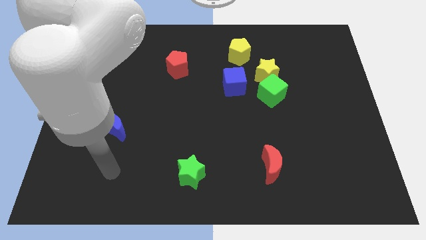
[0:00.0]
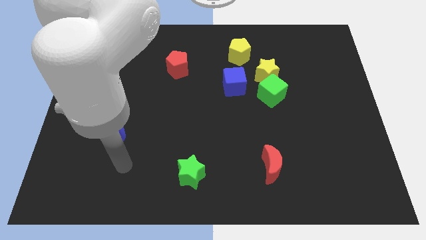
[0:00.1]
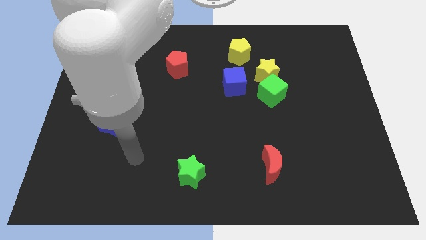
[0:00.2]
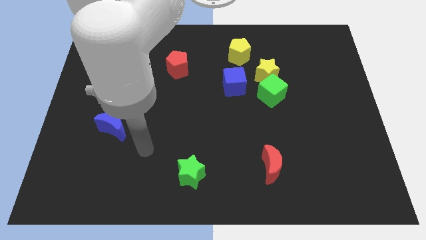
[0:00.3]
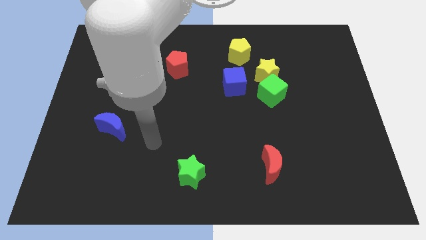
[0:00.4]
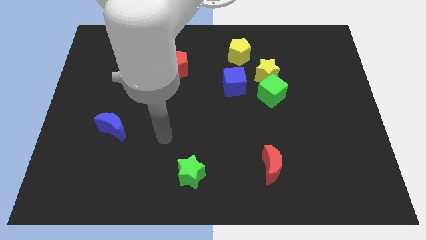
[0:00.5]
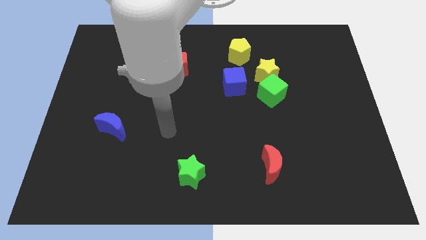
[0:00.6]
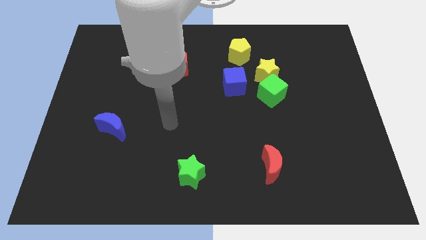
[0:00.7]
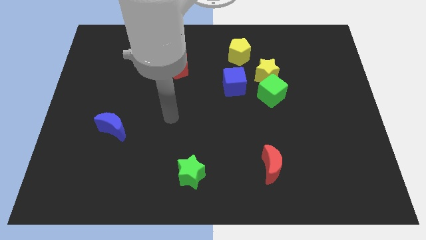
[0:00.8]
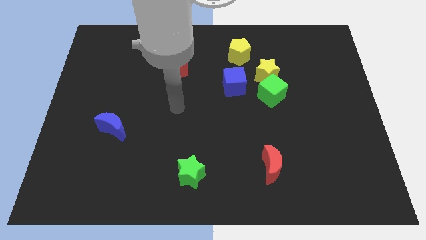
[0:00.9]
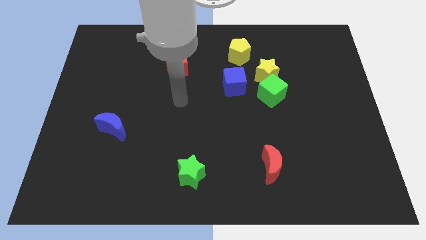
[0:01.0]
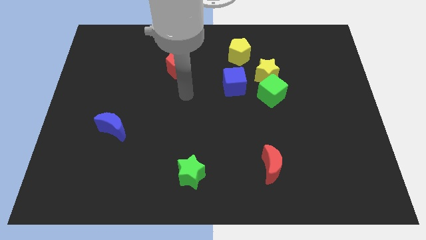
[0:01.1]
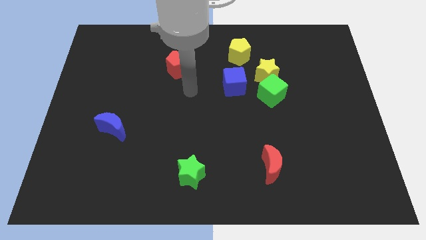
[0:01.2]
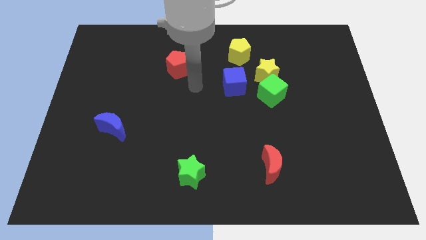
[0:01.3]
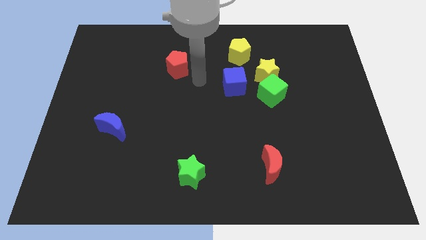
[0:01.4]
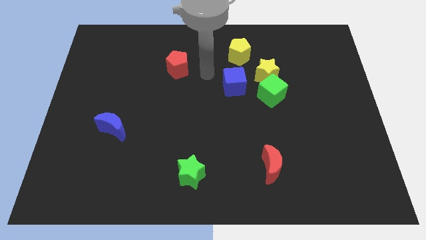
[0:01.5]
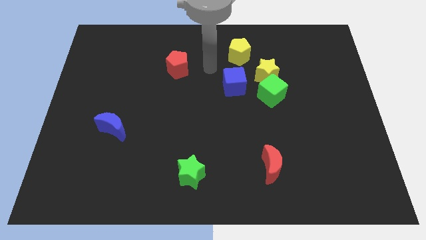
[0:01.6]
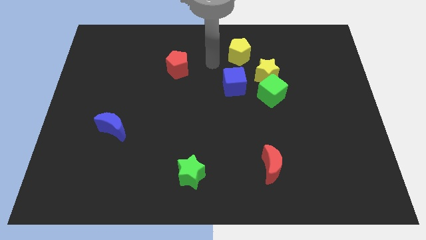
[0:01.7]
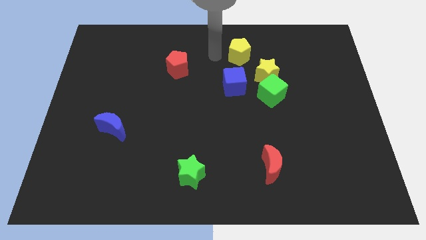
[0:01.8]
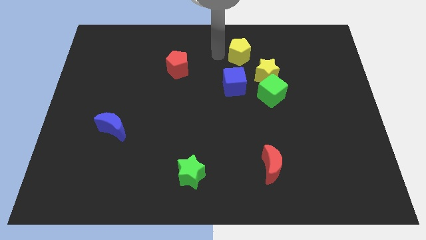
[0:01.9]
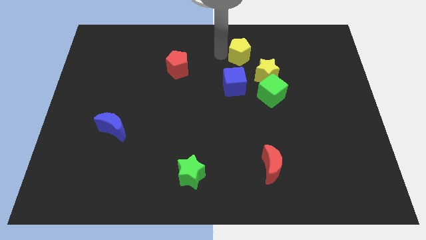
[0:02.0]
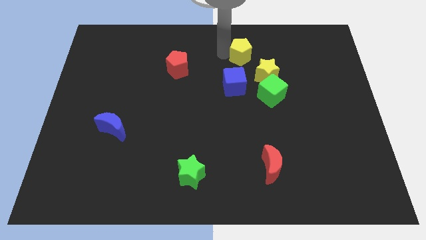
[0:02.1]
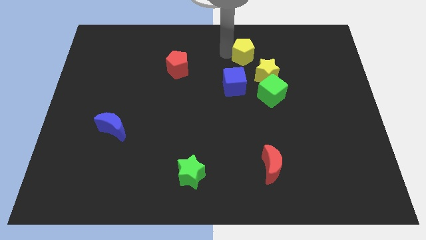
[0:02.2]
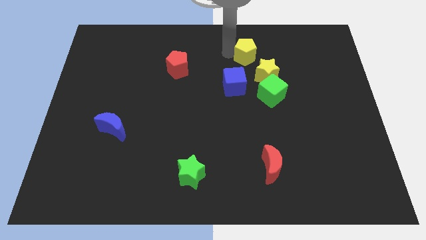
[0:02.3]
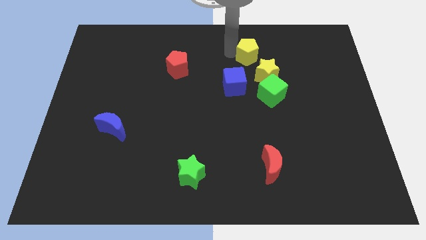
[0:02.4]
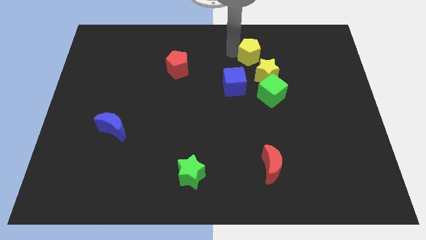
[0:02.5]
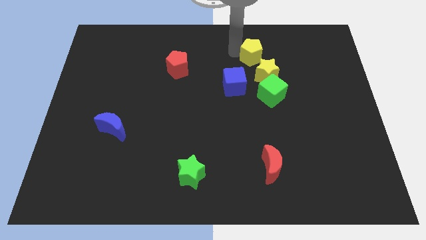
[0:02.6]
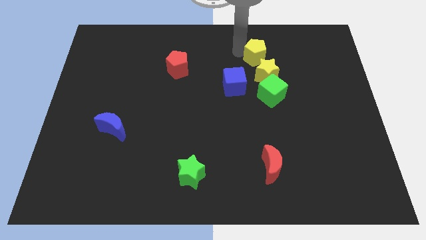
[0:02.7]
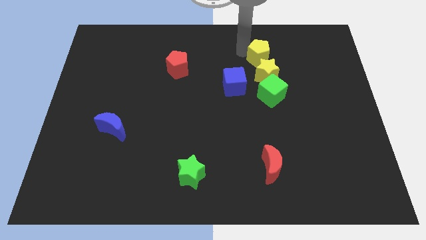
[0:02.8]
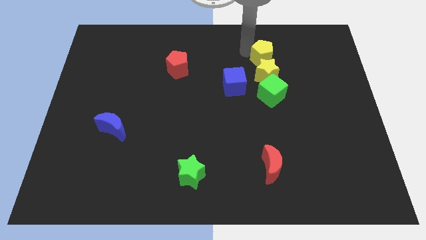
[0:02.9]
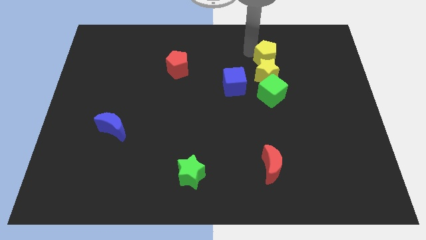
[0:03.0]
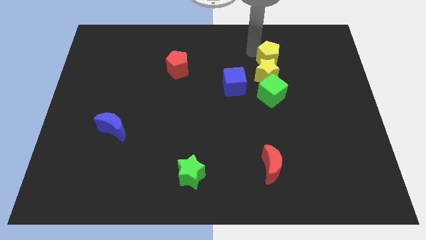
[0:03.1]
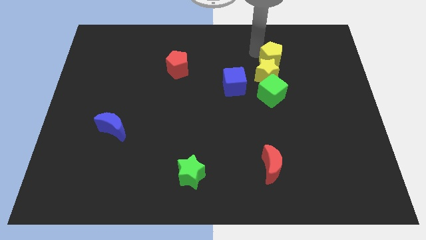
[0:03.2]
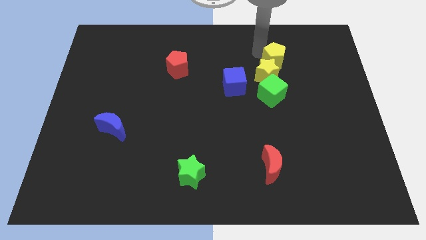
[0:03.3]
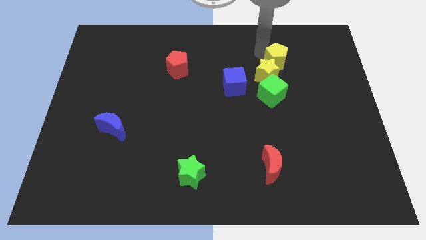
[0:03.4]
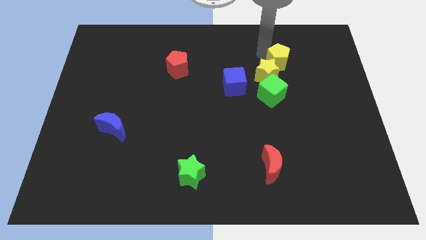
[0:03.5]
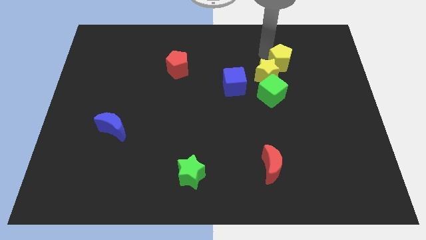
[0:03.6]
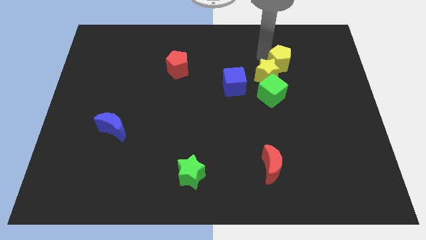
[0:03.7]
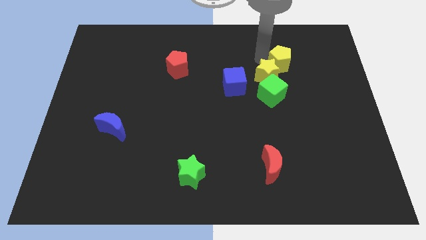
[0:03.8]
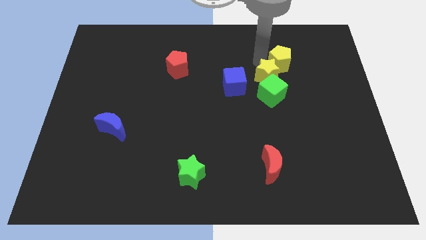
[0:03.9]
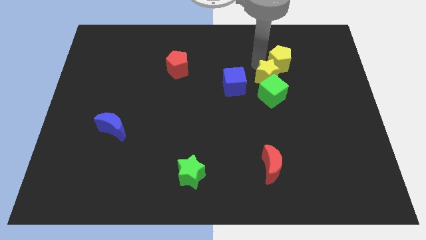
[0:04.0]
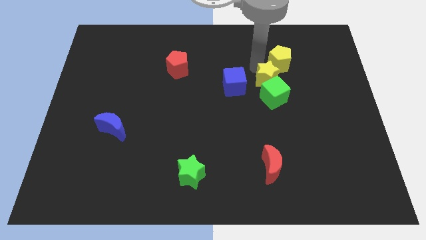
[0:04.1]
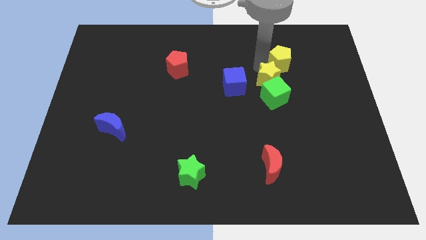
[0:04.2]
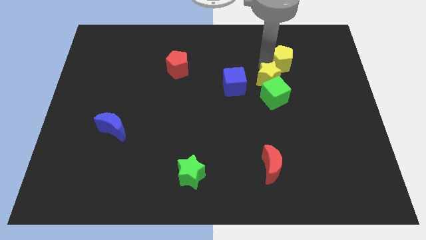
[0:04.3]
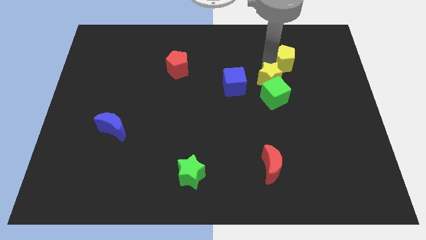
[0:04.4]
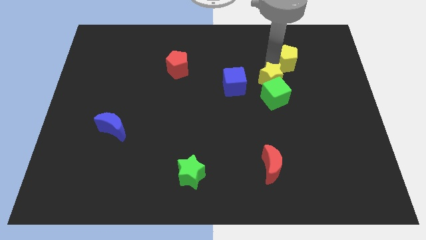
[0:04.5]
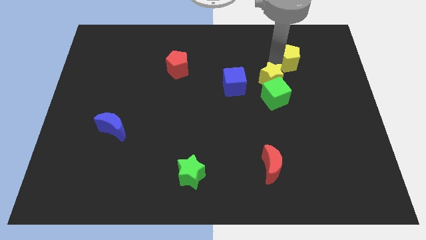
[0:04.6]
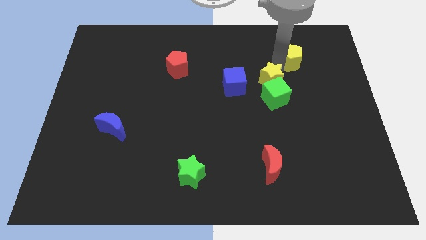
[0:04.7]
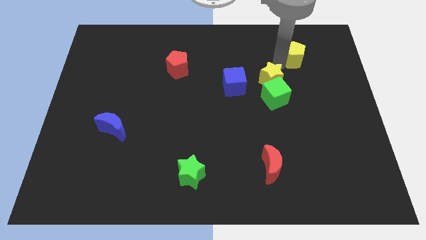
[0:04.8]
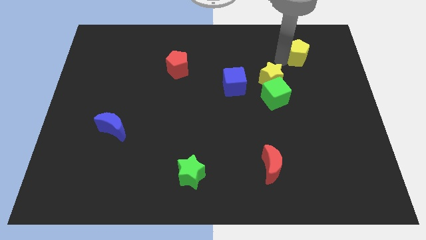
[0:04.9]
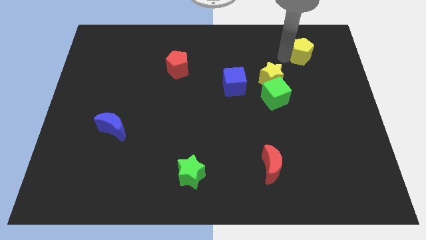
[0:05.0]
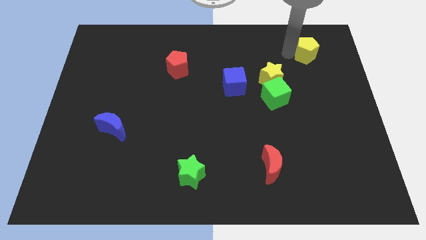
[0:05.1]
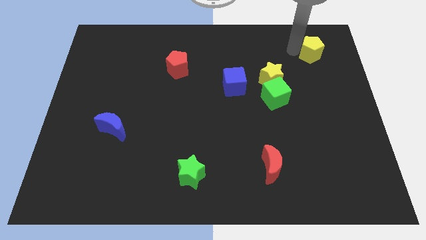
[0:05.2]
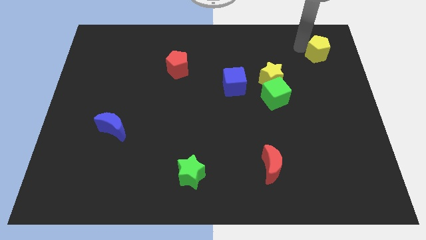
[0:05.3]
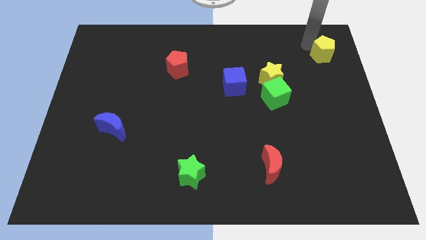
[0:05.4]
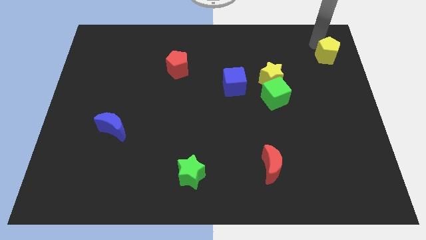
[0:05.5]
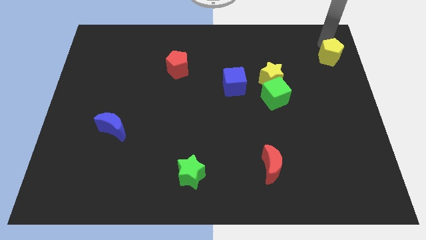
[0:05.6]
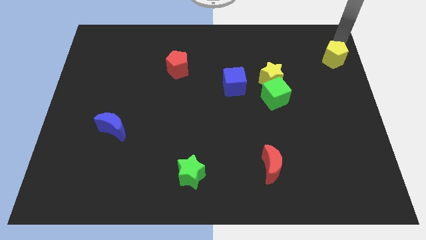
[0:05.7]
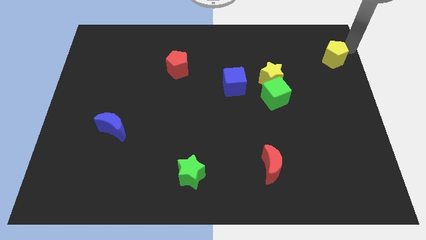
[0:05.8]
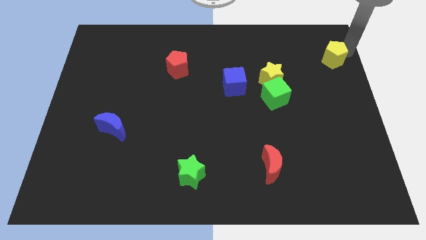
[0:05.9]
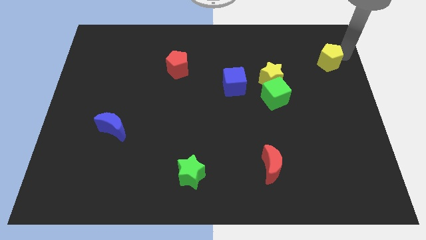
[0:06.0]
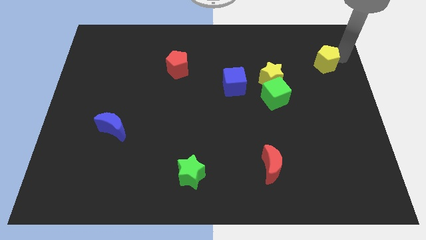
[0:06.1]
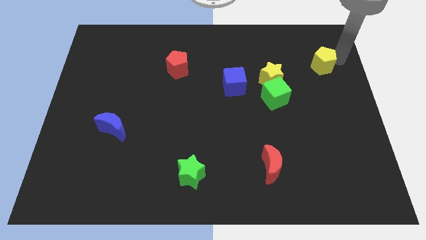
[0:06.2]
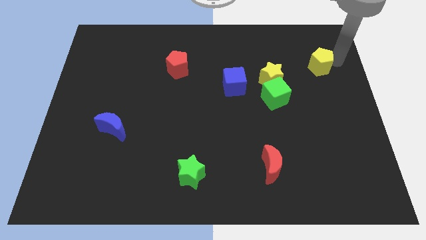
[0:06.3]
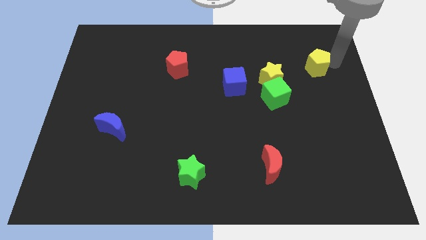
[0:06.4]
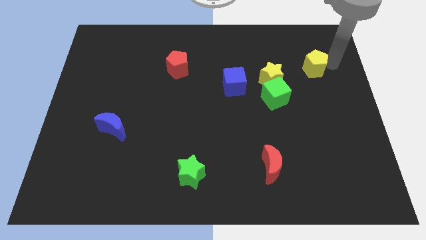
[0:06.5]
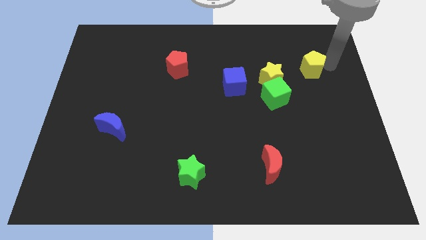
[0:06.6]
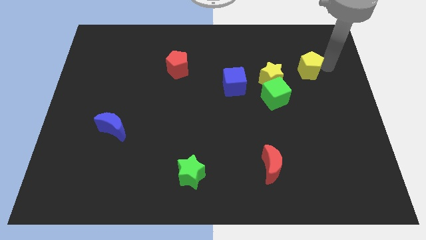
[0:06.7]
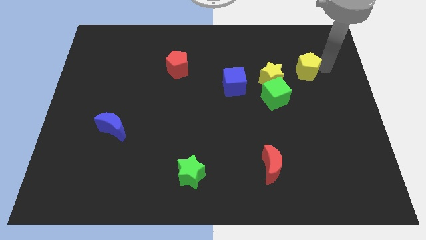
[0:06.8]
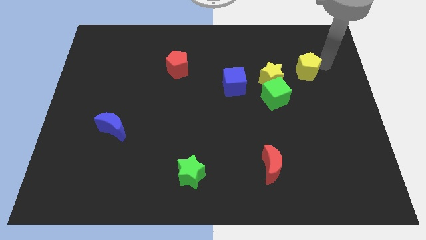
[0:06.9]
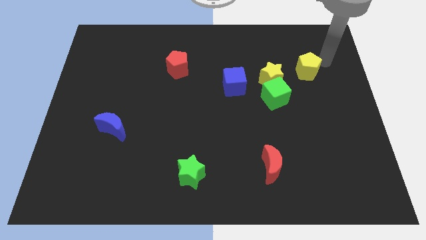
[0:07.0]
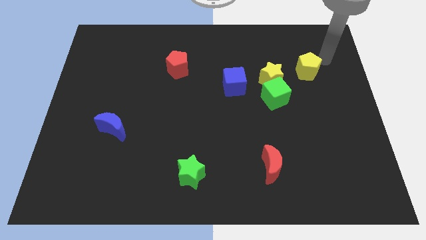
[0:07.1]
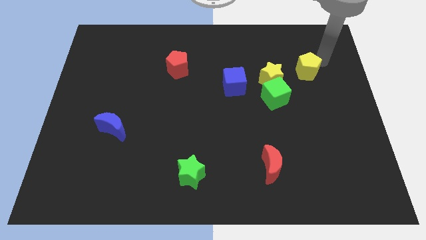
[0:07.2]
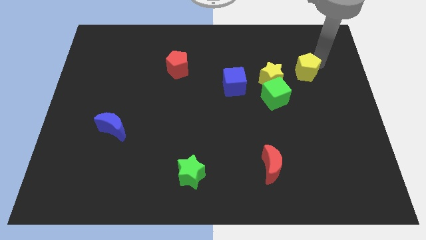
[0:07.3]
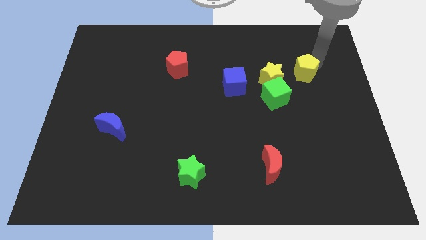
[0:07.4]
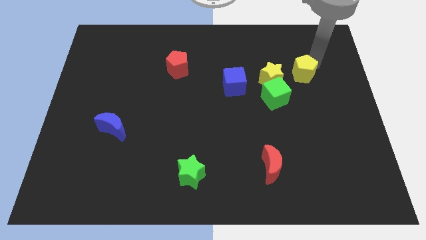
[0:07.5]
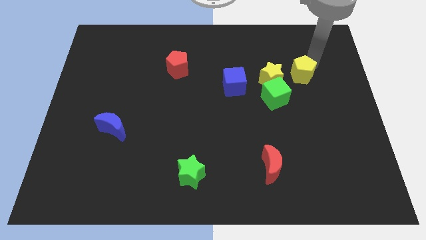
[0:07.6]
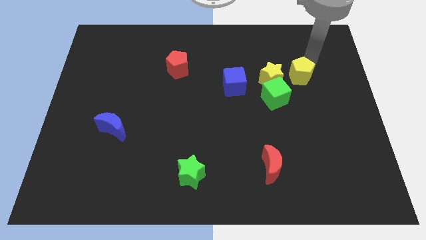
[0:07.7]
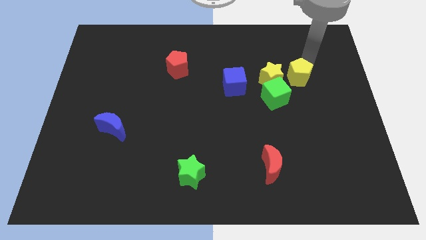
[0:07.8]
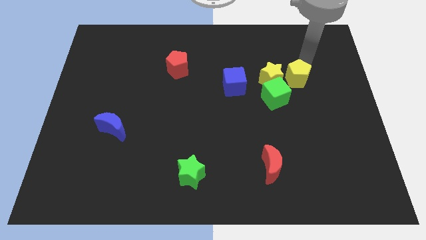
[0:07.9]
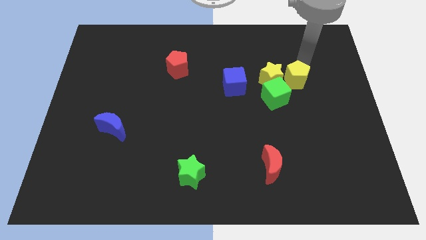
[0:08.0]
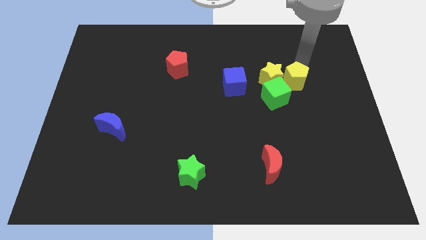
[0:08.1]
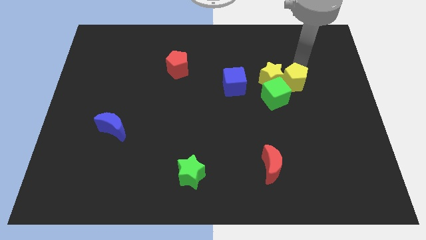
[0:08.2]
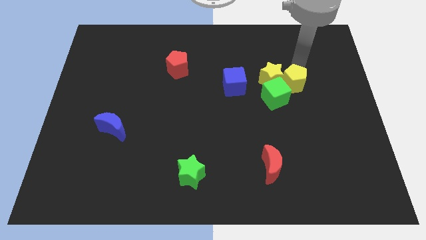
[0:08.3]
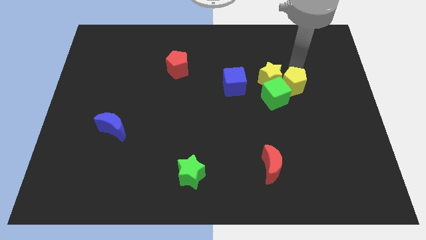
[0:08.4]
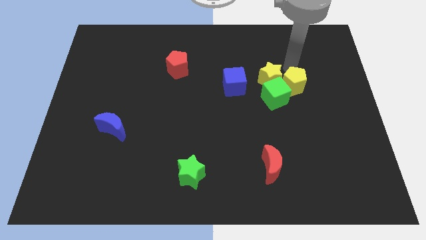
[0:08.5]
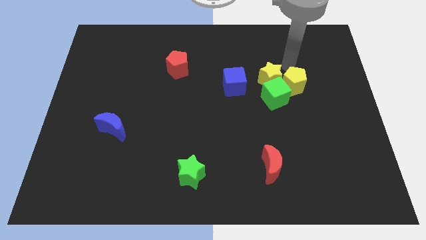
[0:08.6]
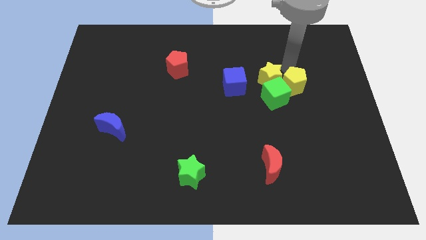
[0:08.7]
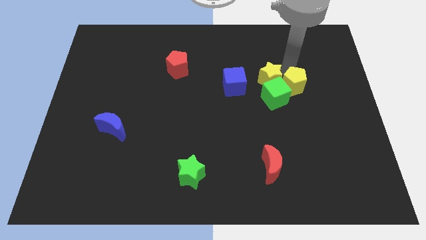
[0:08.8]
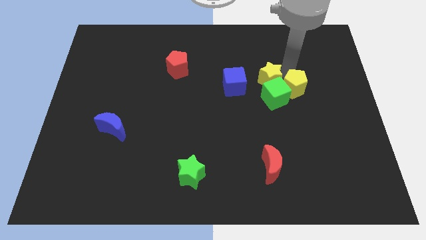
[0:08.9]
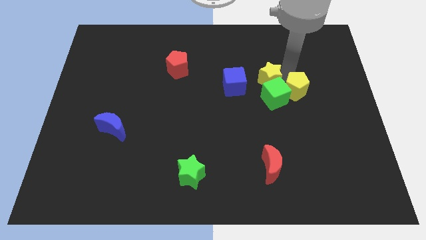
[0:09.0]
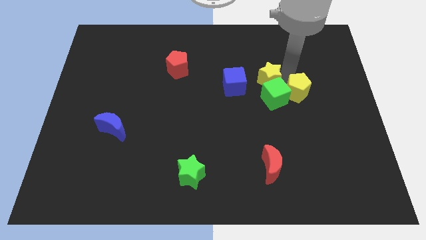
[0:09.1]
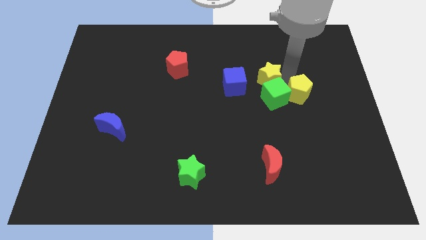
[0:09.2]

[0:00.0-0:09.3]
push the yellow pentagon to the bottom right of the green cube
